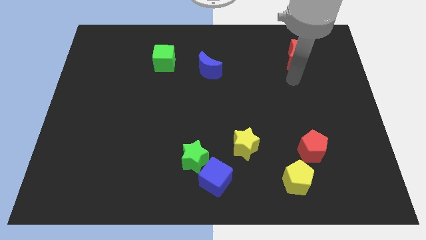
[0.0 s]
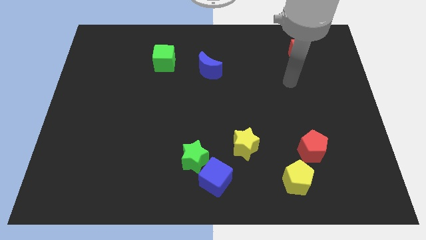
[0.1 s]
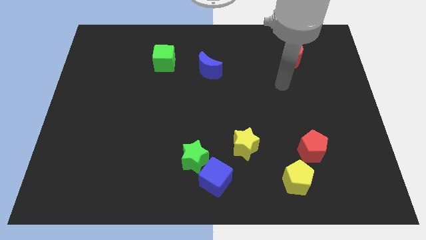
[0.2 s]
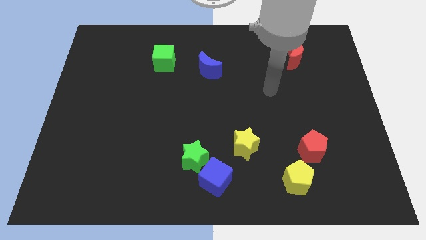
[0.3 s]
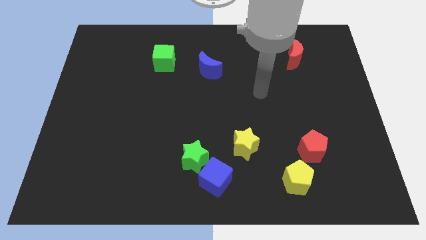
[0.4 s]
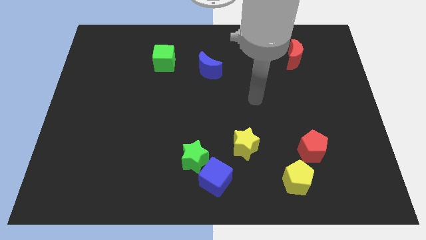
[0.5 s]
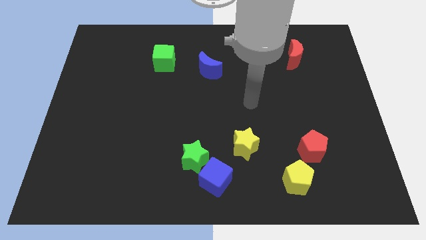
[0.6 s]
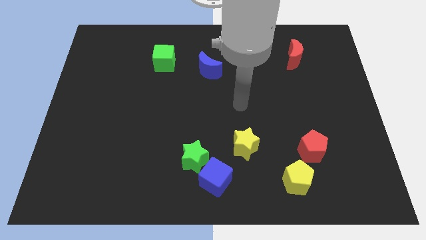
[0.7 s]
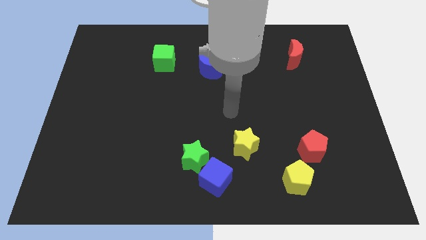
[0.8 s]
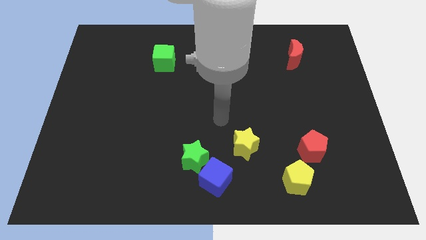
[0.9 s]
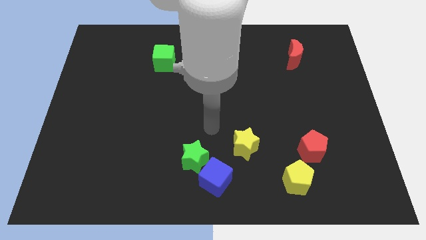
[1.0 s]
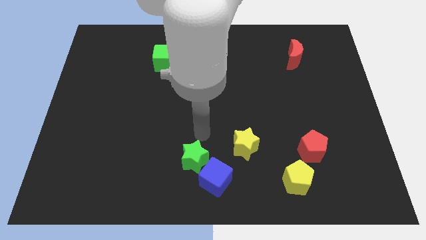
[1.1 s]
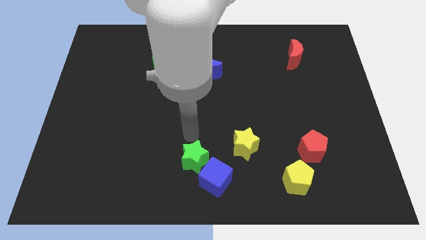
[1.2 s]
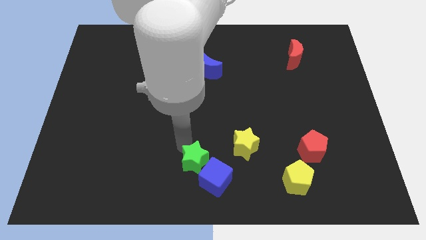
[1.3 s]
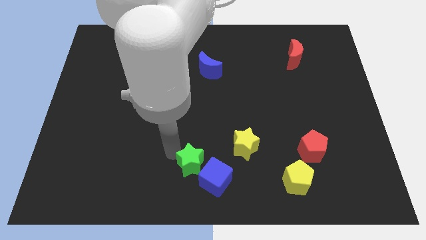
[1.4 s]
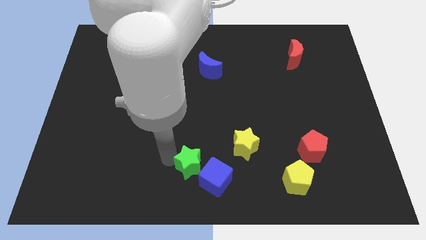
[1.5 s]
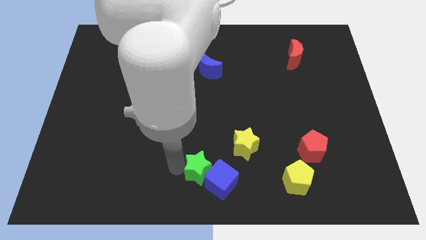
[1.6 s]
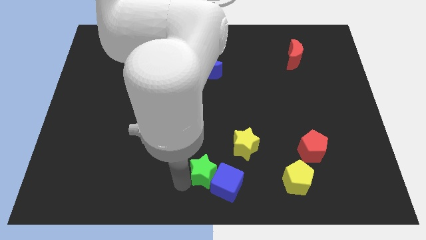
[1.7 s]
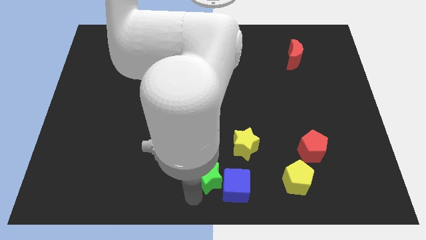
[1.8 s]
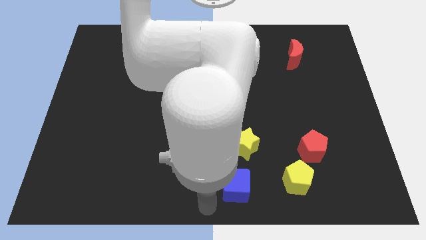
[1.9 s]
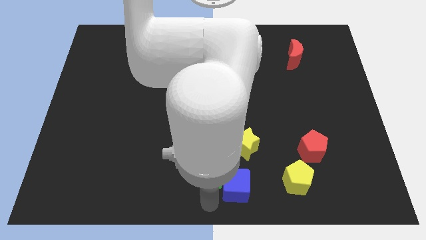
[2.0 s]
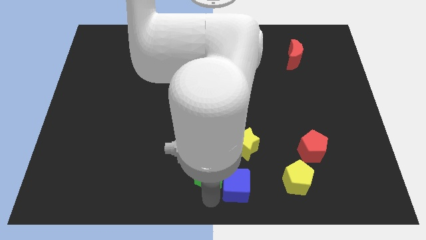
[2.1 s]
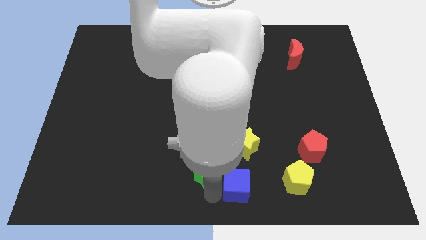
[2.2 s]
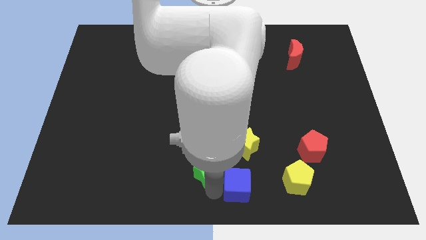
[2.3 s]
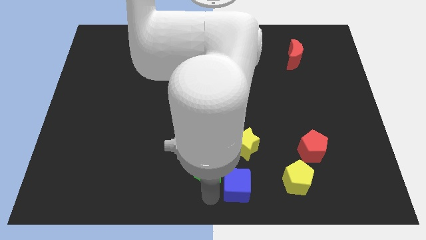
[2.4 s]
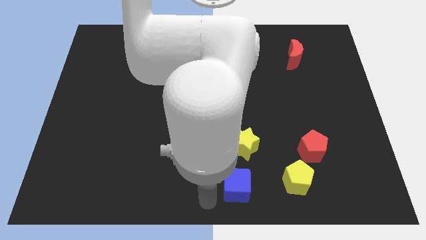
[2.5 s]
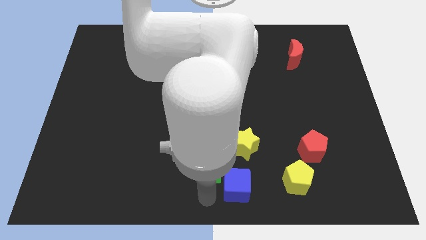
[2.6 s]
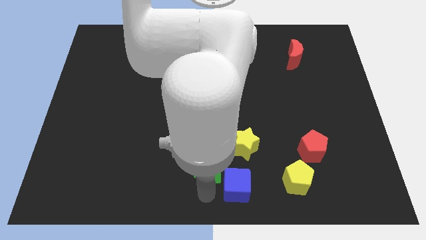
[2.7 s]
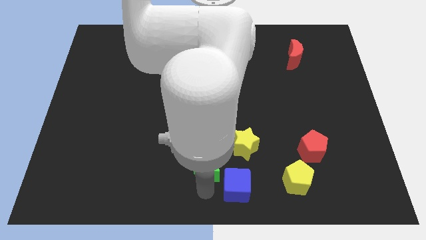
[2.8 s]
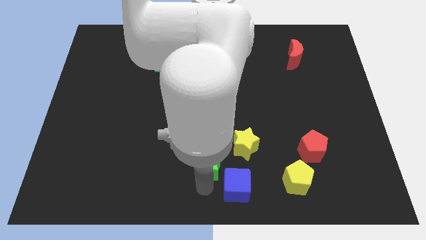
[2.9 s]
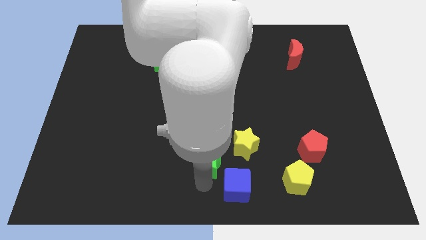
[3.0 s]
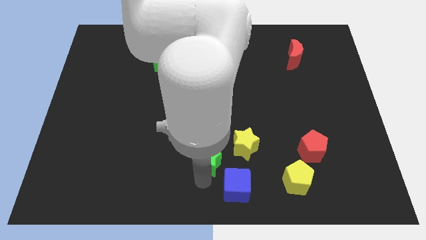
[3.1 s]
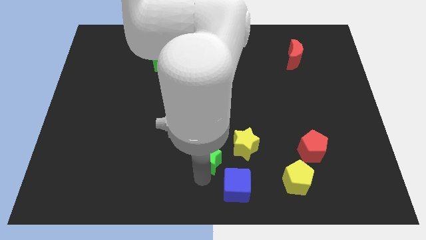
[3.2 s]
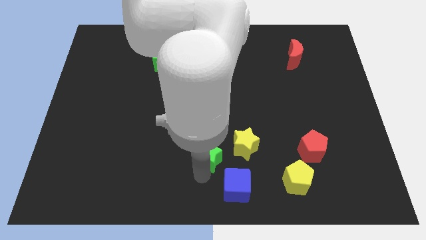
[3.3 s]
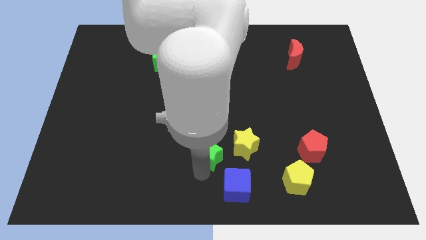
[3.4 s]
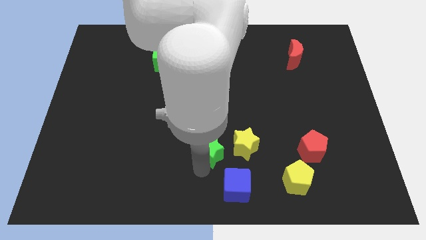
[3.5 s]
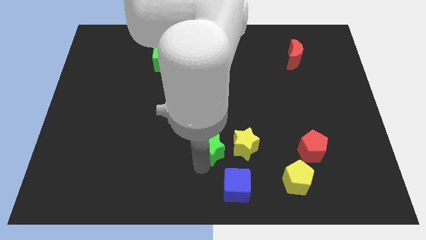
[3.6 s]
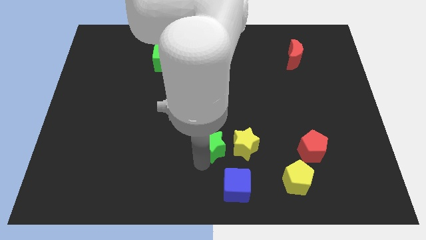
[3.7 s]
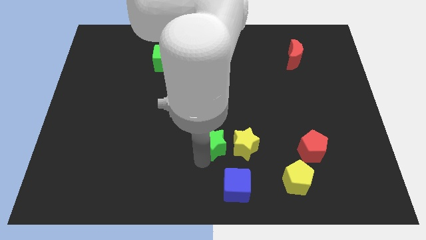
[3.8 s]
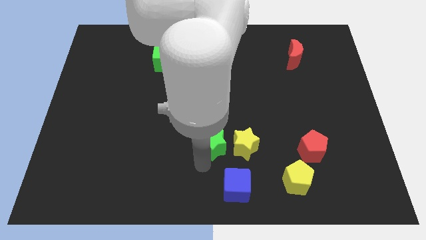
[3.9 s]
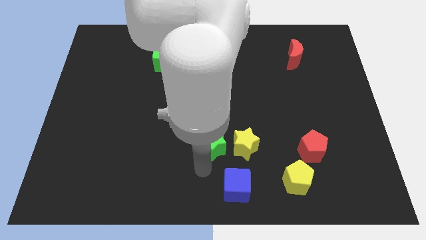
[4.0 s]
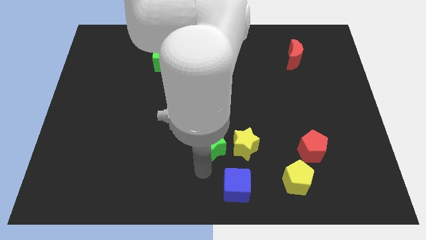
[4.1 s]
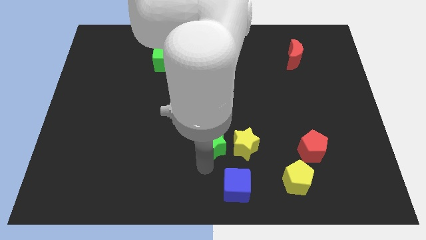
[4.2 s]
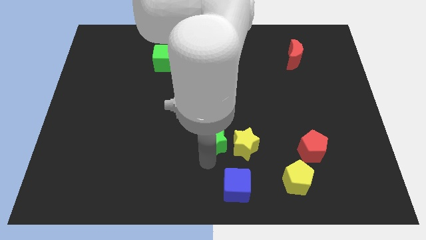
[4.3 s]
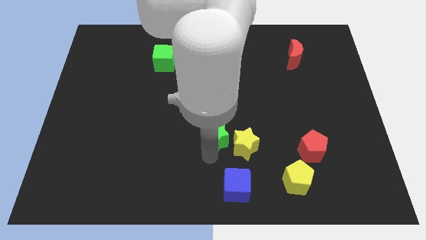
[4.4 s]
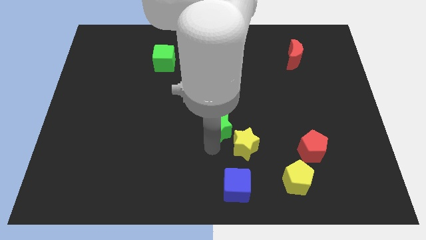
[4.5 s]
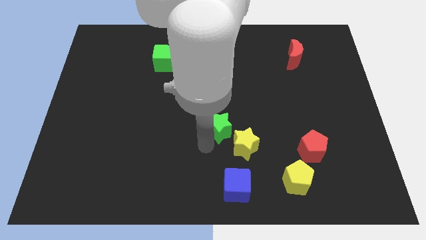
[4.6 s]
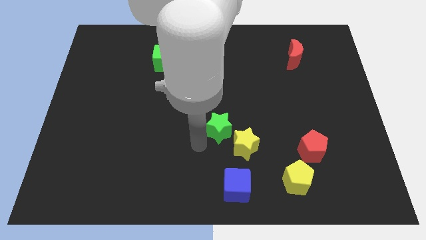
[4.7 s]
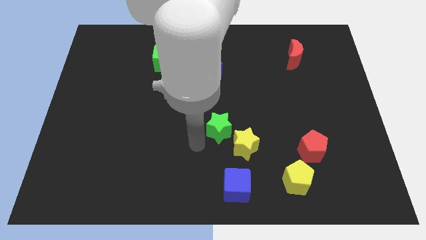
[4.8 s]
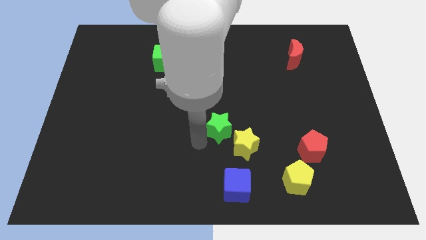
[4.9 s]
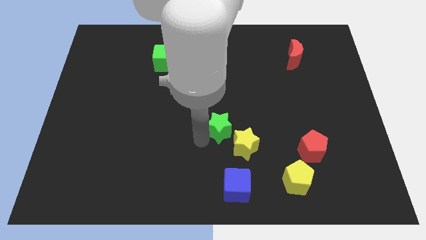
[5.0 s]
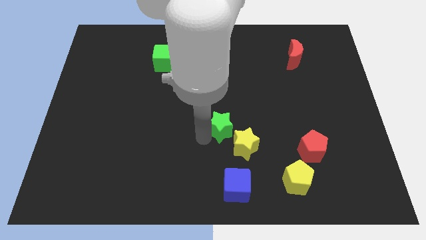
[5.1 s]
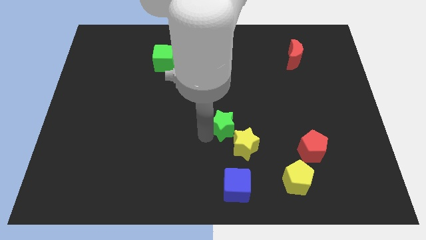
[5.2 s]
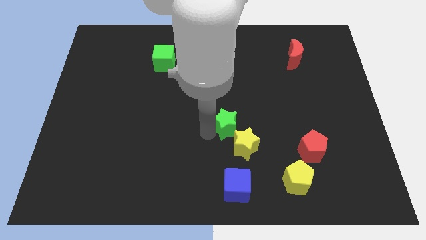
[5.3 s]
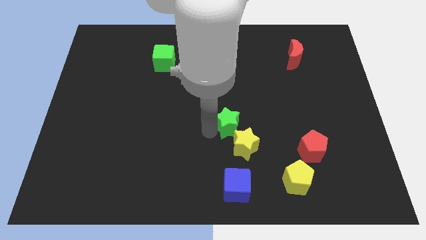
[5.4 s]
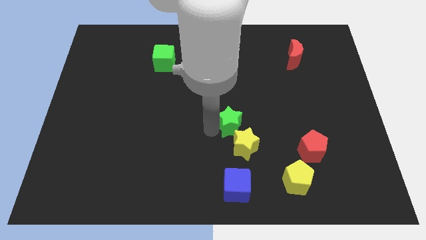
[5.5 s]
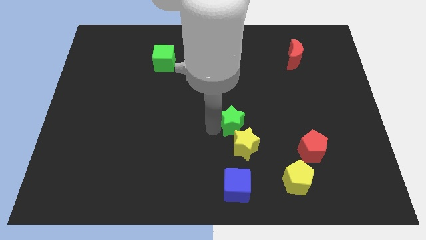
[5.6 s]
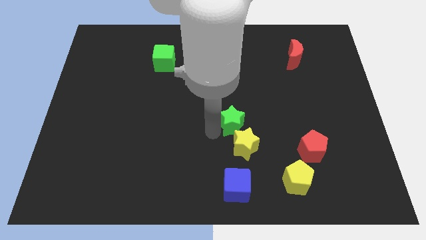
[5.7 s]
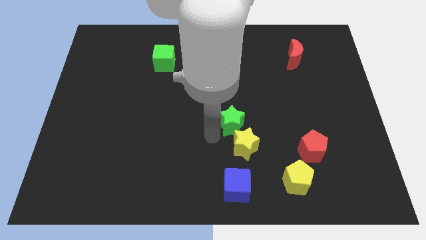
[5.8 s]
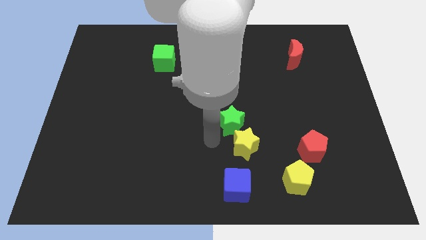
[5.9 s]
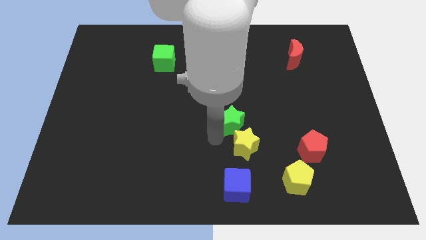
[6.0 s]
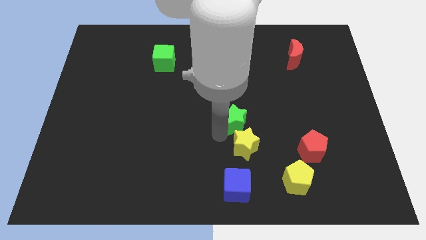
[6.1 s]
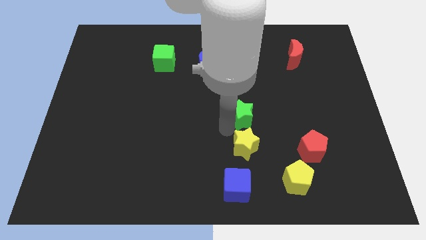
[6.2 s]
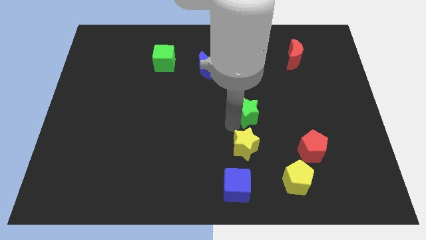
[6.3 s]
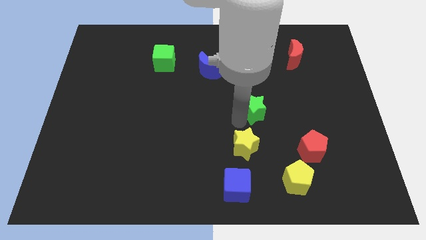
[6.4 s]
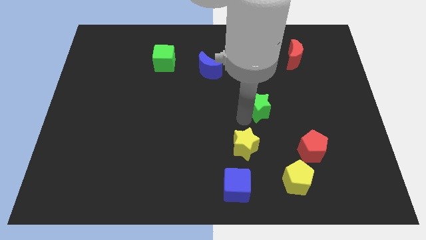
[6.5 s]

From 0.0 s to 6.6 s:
move the green star upwards and right diagonally

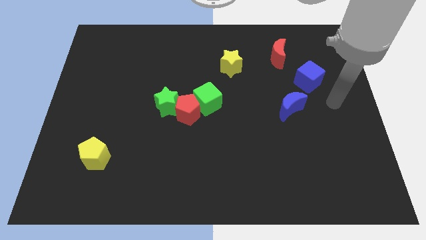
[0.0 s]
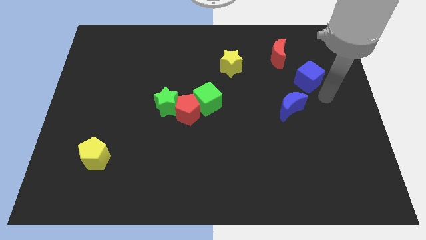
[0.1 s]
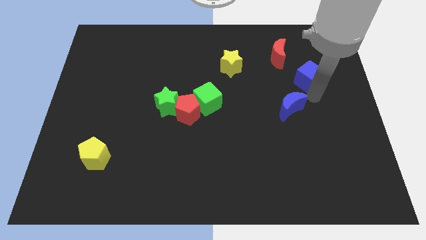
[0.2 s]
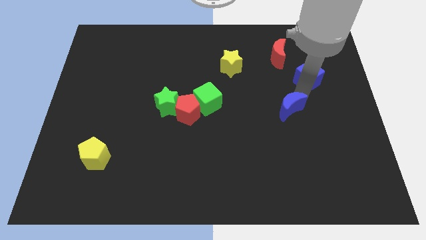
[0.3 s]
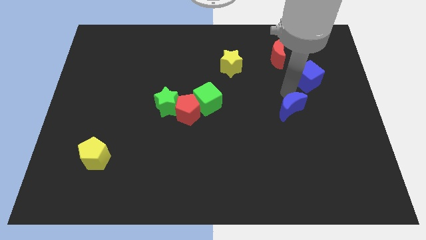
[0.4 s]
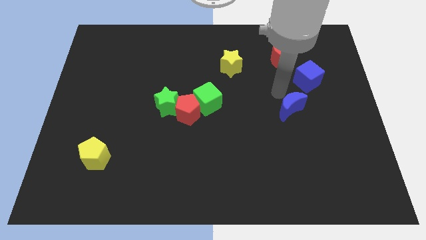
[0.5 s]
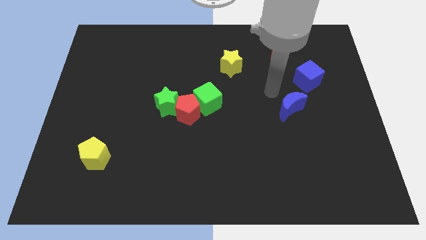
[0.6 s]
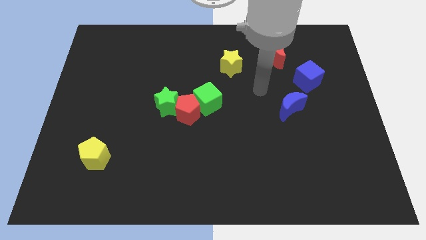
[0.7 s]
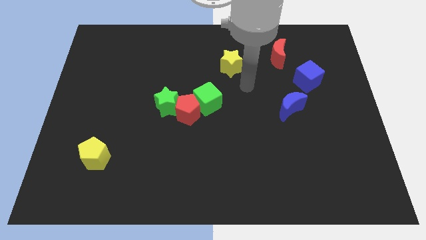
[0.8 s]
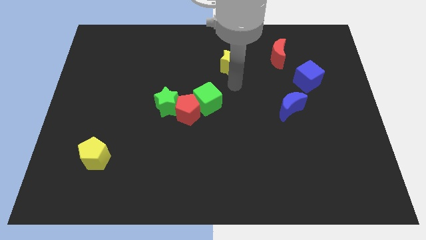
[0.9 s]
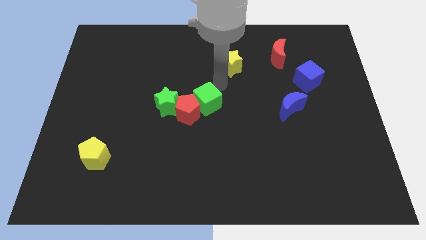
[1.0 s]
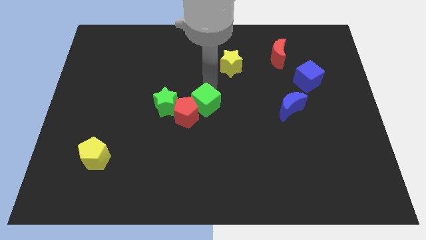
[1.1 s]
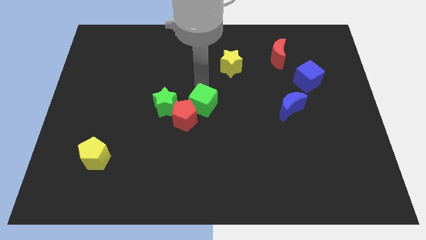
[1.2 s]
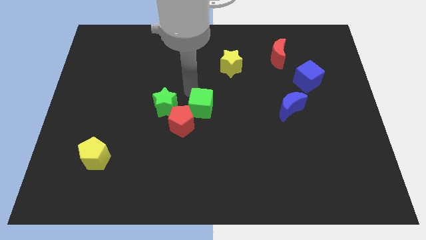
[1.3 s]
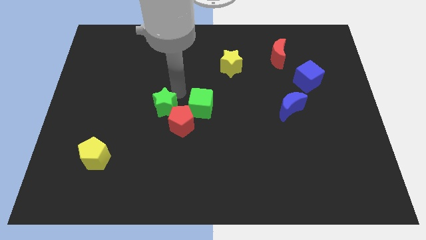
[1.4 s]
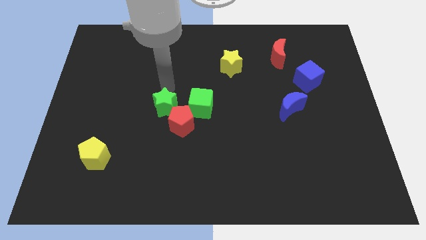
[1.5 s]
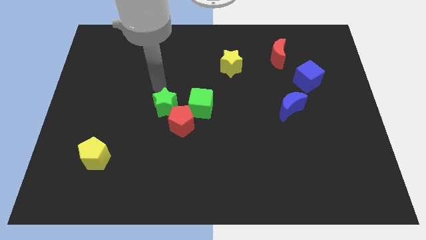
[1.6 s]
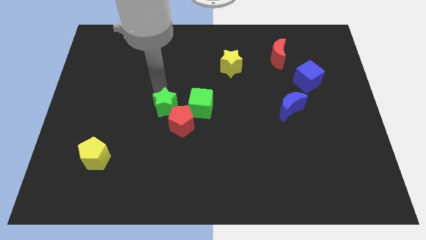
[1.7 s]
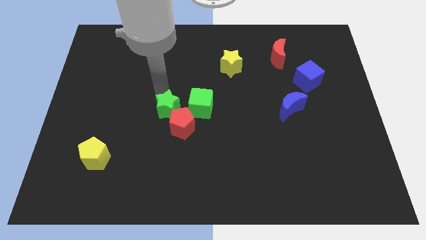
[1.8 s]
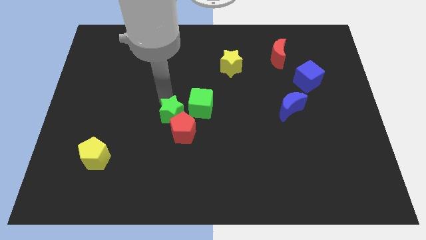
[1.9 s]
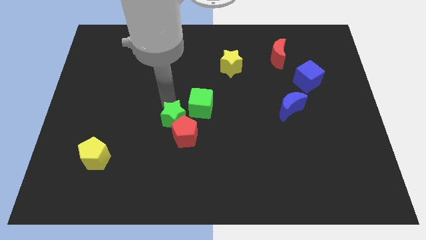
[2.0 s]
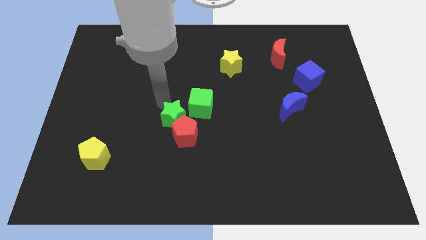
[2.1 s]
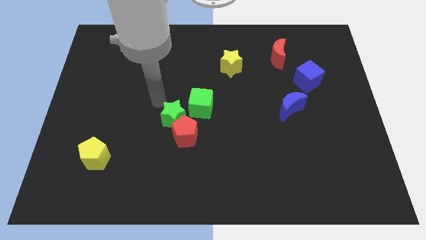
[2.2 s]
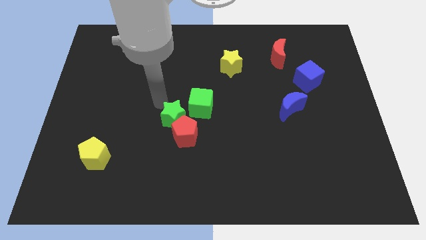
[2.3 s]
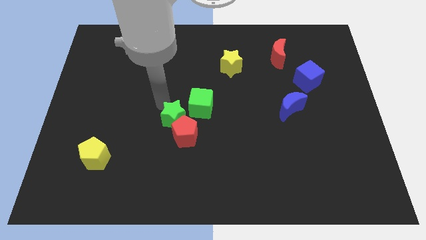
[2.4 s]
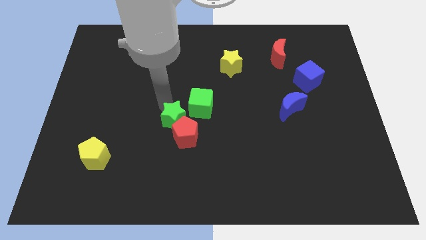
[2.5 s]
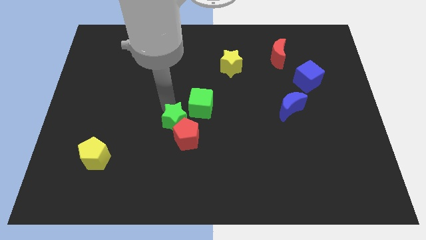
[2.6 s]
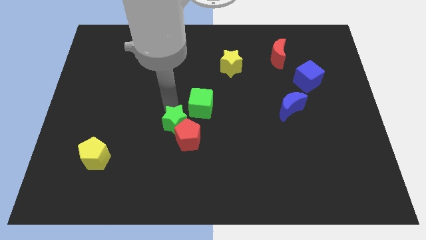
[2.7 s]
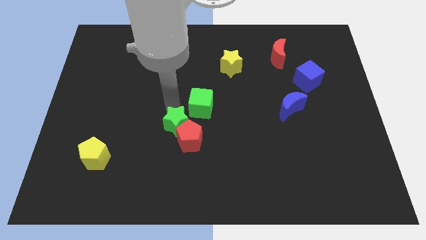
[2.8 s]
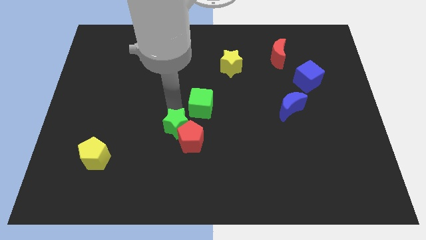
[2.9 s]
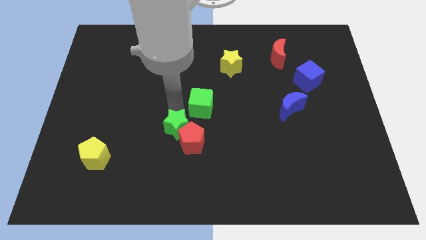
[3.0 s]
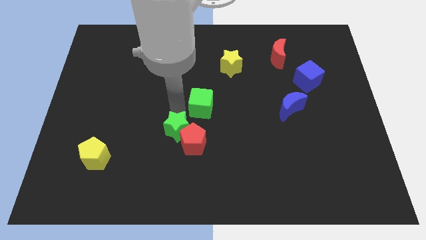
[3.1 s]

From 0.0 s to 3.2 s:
push the green star a bit downwards and right diagonally
